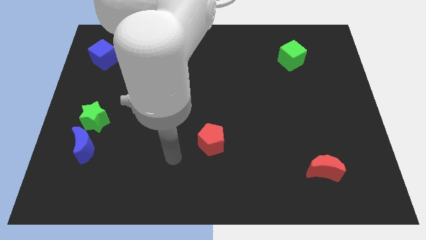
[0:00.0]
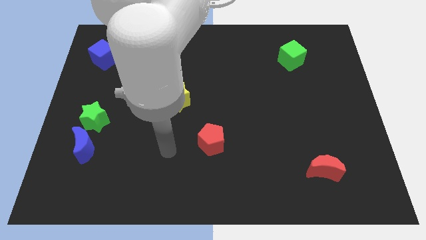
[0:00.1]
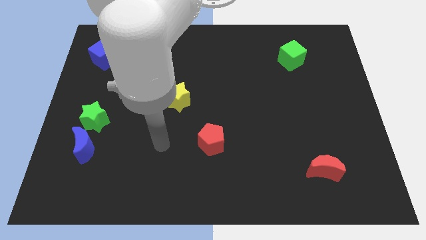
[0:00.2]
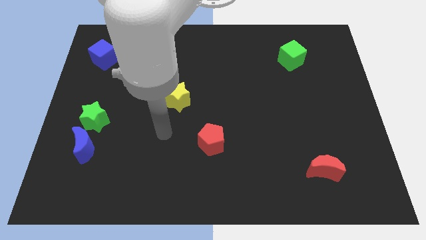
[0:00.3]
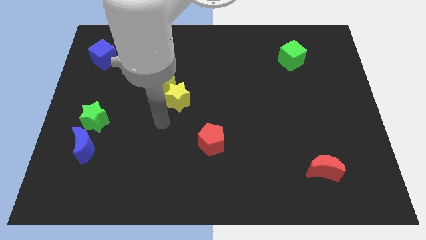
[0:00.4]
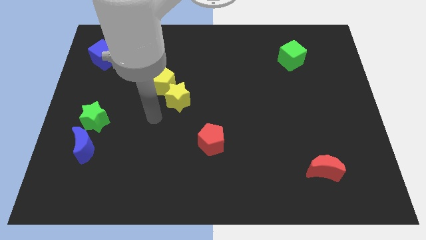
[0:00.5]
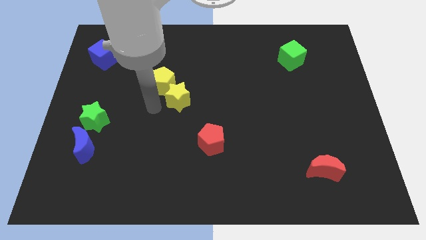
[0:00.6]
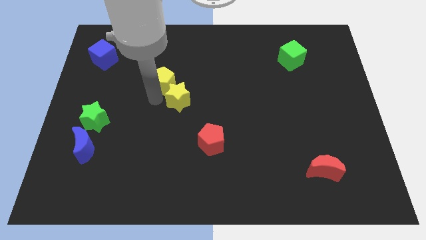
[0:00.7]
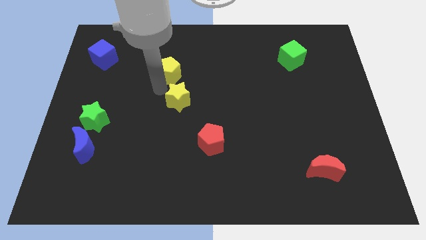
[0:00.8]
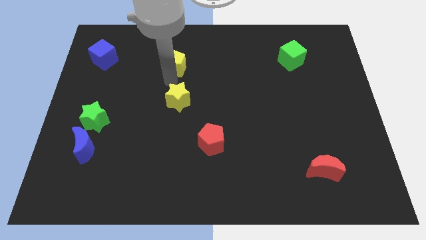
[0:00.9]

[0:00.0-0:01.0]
pull the yellow star apart from the yellow pentagon

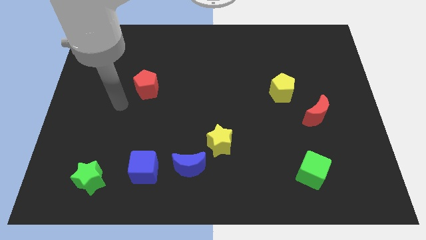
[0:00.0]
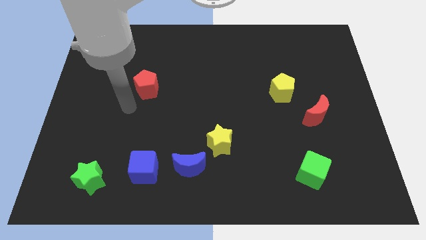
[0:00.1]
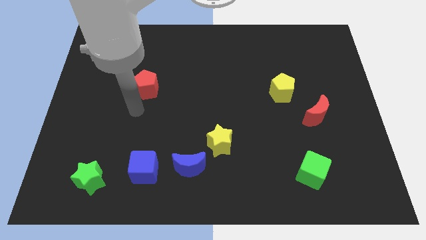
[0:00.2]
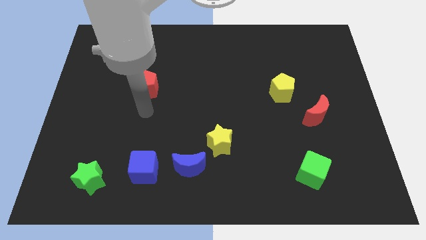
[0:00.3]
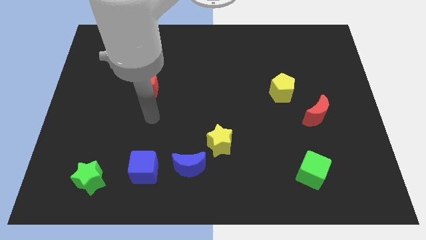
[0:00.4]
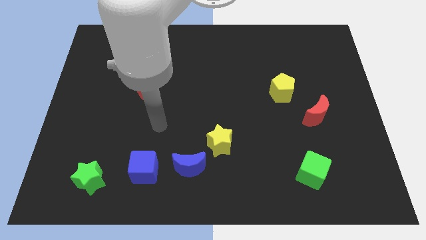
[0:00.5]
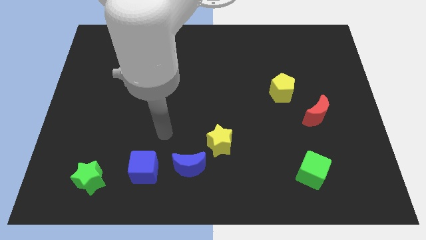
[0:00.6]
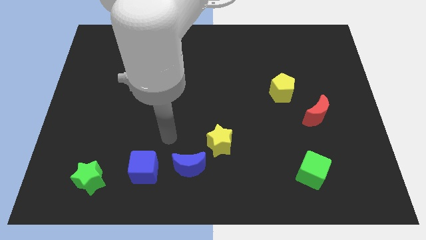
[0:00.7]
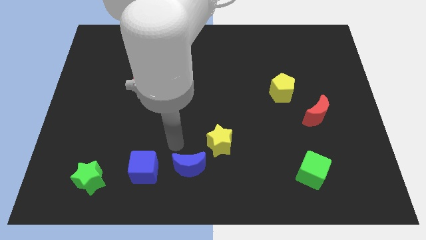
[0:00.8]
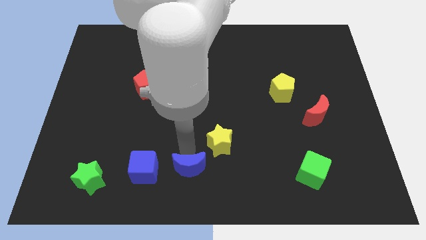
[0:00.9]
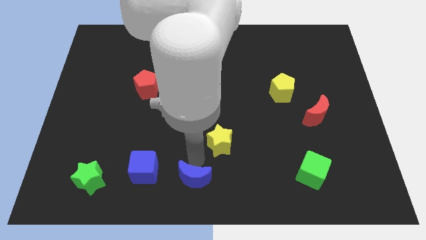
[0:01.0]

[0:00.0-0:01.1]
move the yellow star away from the blue moon

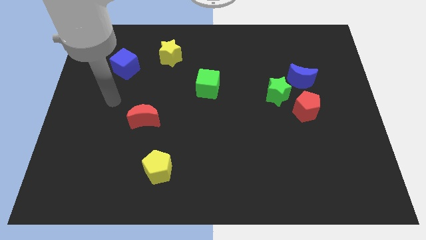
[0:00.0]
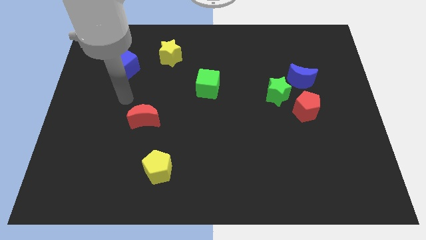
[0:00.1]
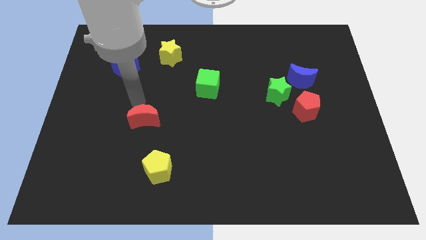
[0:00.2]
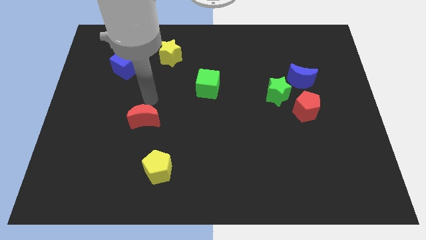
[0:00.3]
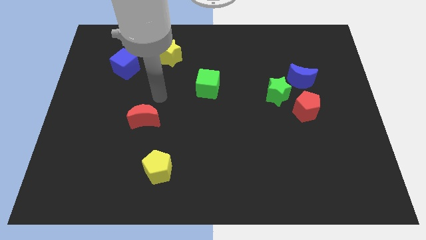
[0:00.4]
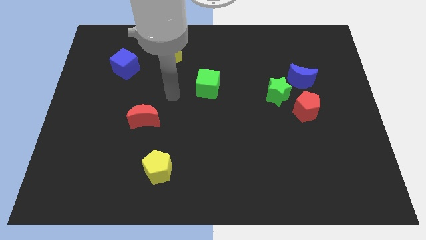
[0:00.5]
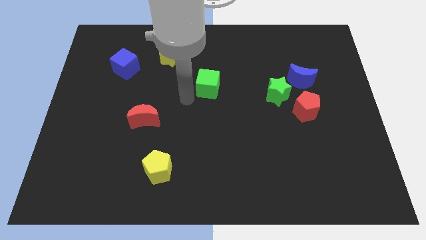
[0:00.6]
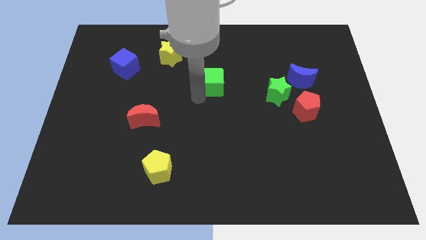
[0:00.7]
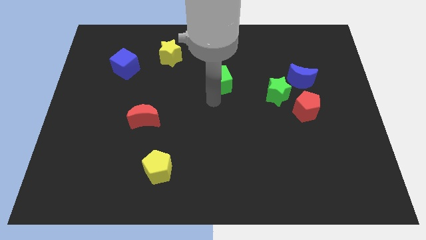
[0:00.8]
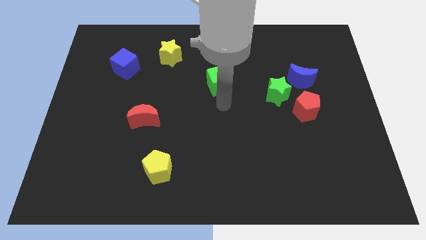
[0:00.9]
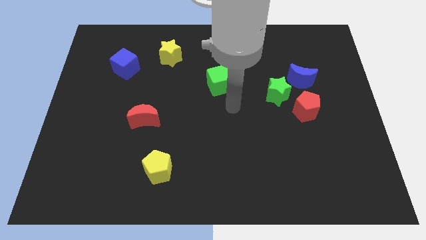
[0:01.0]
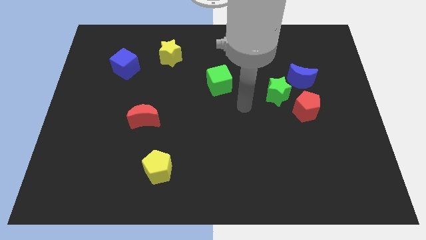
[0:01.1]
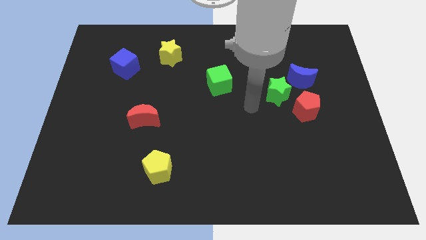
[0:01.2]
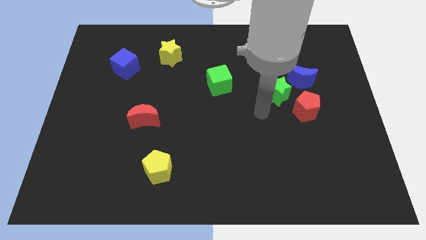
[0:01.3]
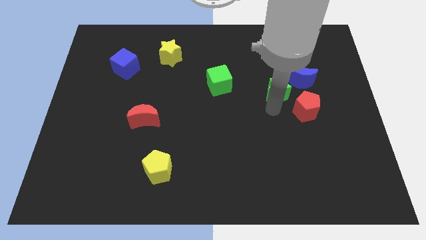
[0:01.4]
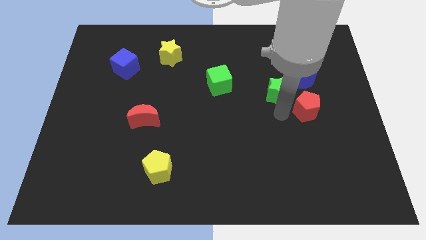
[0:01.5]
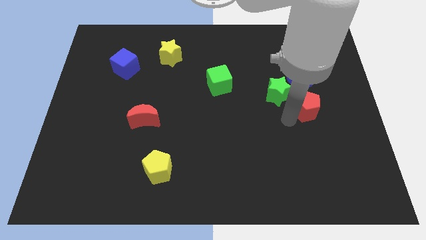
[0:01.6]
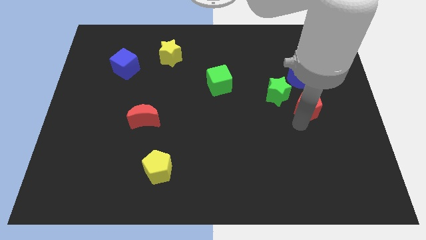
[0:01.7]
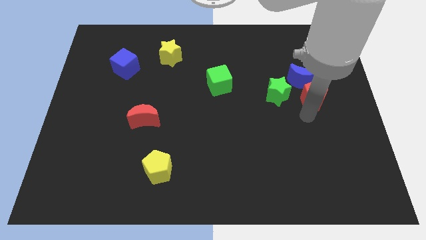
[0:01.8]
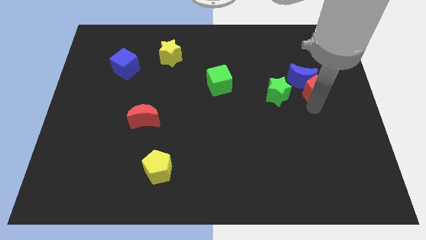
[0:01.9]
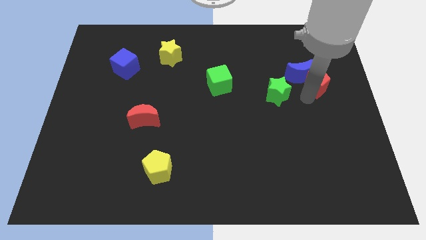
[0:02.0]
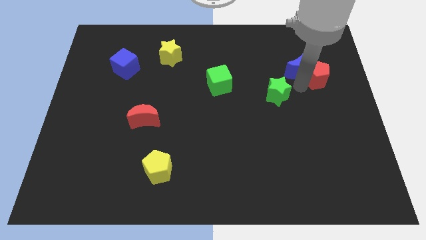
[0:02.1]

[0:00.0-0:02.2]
pull the green star apart from the red pentagon and blue moon

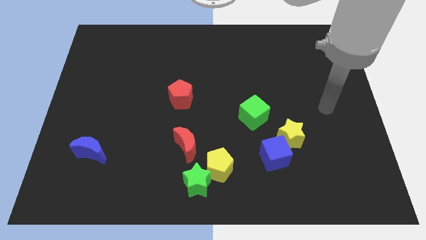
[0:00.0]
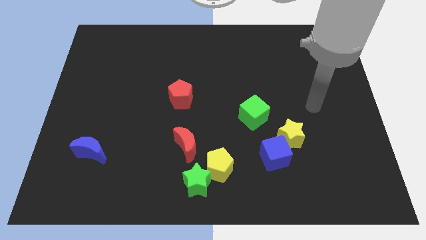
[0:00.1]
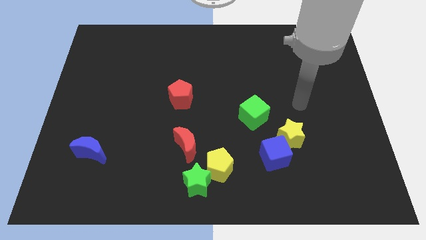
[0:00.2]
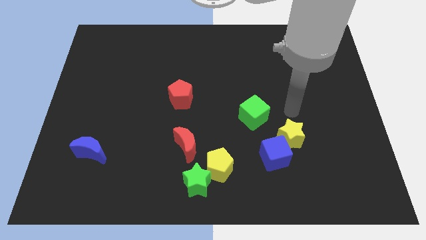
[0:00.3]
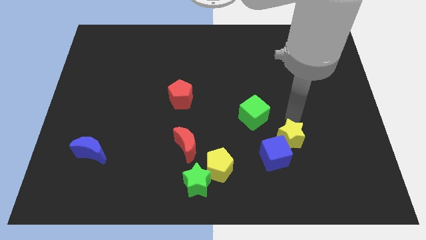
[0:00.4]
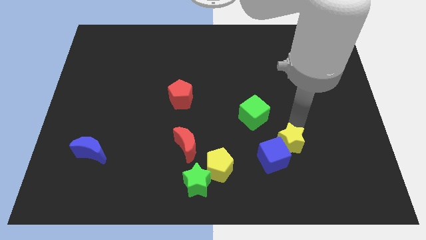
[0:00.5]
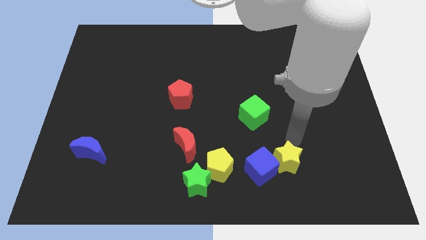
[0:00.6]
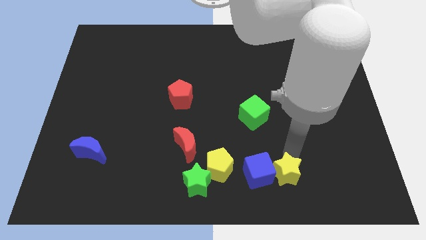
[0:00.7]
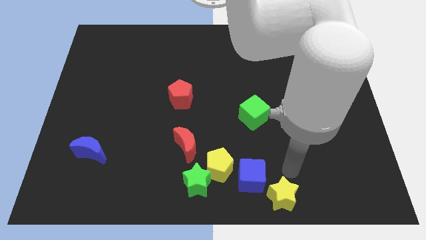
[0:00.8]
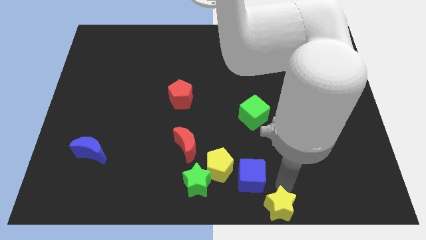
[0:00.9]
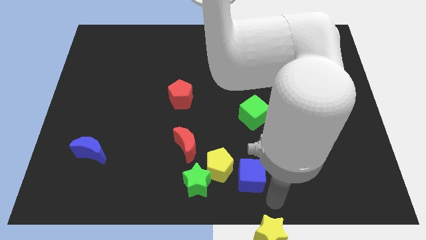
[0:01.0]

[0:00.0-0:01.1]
pull the blue cube apart from the yellow star

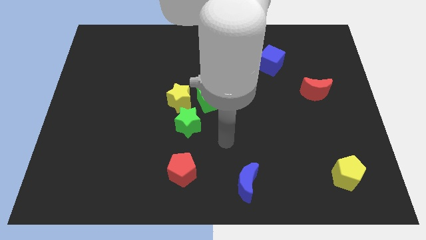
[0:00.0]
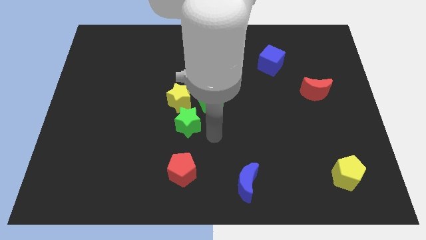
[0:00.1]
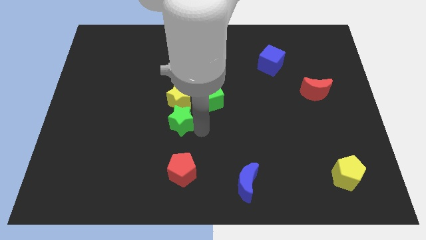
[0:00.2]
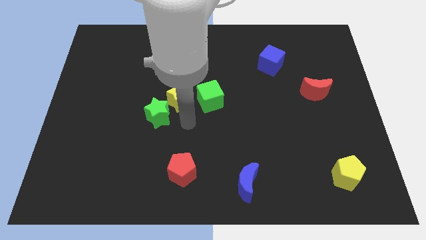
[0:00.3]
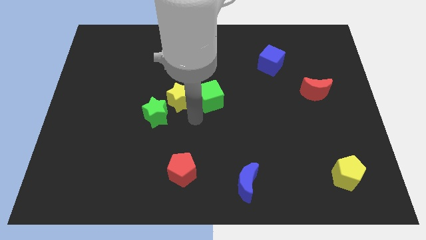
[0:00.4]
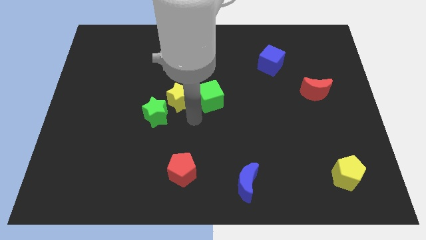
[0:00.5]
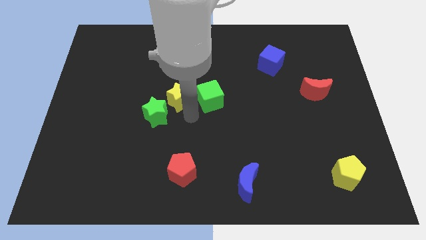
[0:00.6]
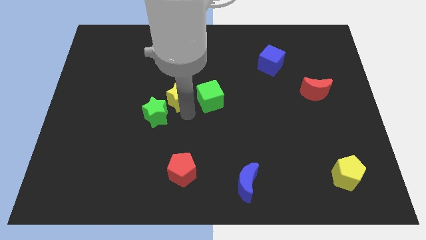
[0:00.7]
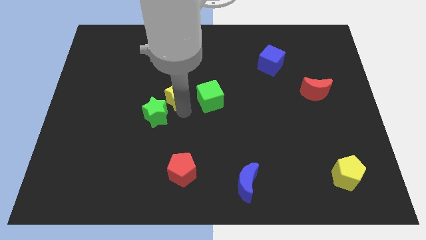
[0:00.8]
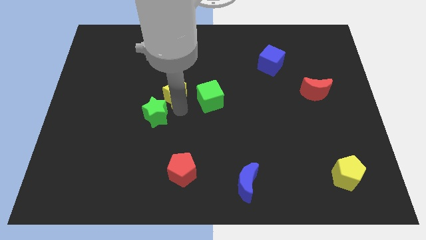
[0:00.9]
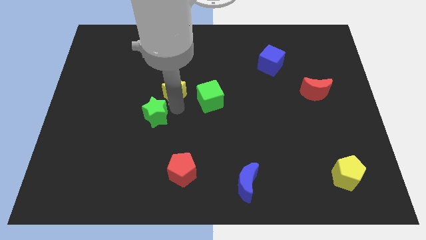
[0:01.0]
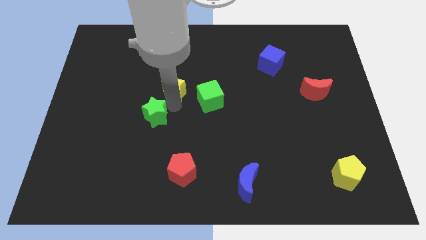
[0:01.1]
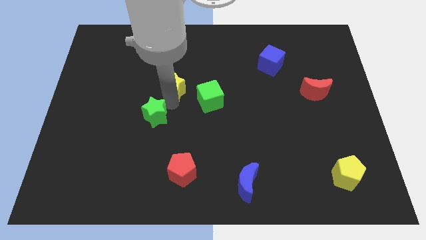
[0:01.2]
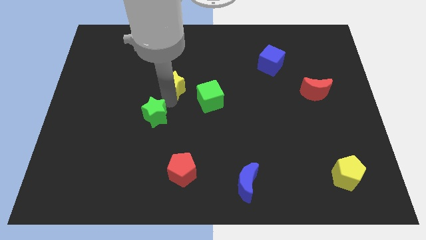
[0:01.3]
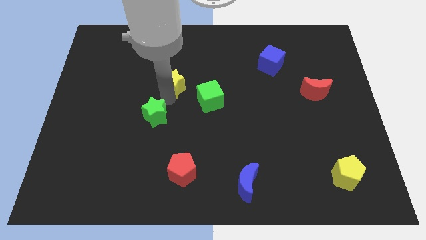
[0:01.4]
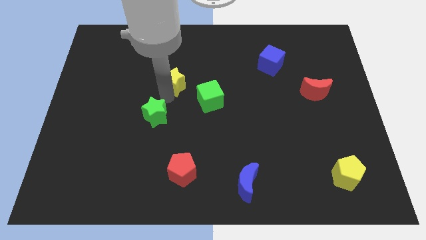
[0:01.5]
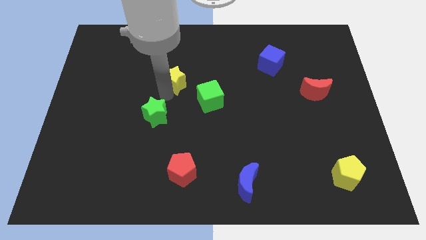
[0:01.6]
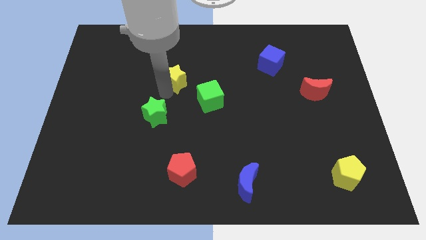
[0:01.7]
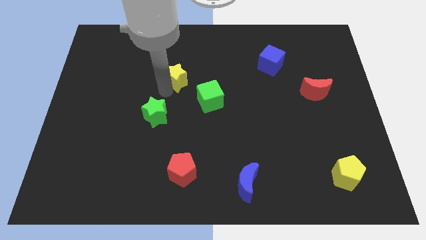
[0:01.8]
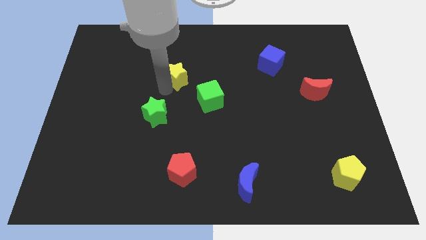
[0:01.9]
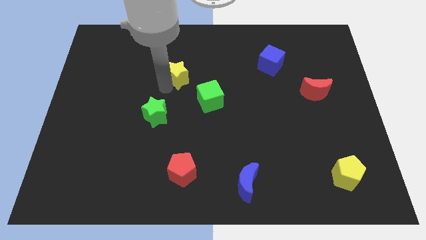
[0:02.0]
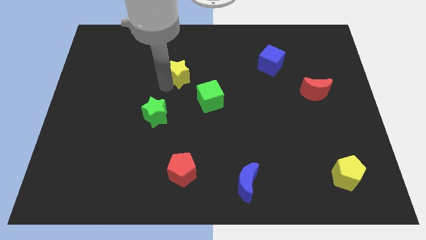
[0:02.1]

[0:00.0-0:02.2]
pull the yellow star apart from the green star and green cube

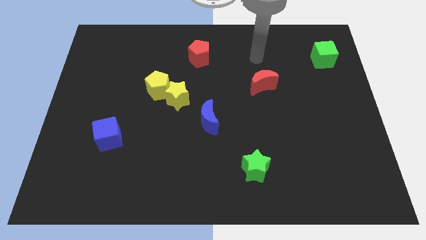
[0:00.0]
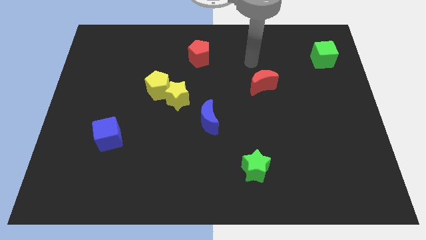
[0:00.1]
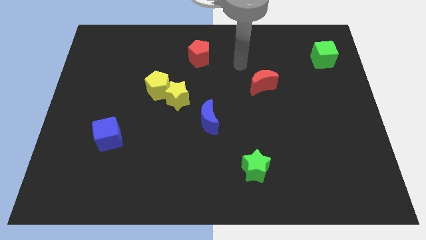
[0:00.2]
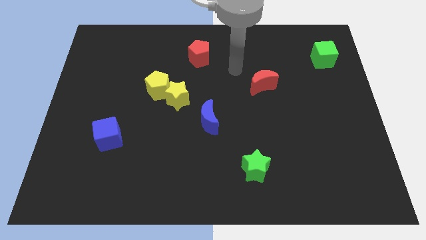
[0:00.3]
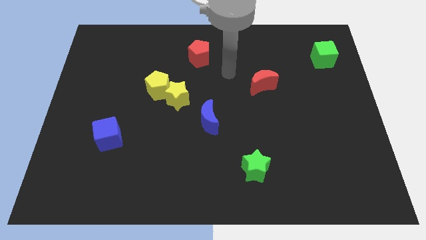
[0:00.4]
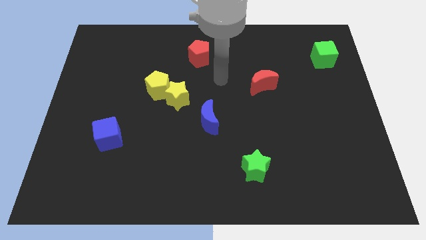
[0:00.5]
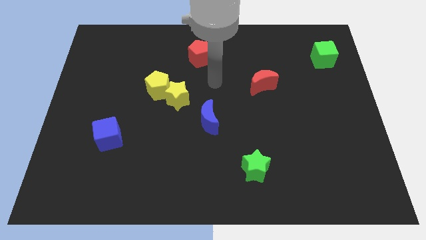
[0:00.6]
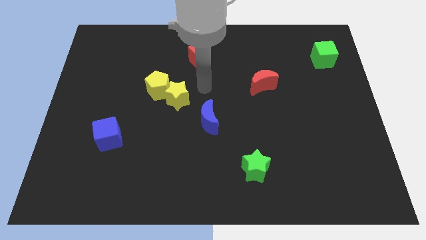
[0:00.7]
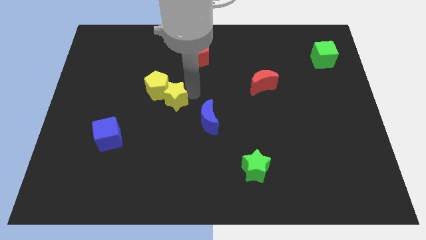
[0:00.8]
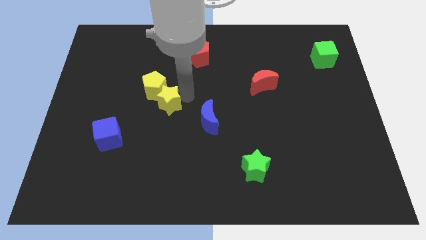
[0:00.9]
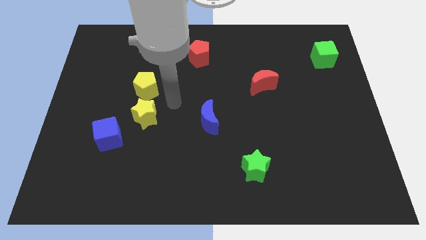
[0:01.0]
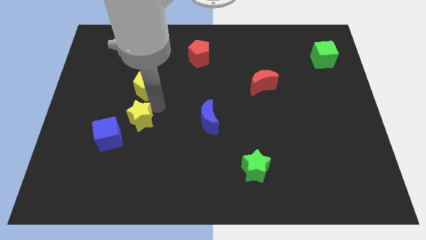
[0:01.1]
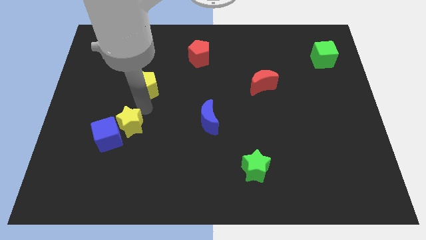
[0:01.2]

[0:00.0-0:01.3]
move the yellow pentagon away from the yellow star

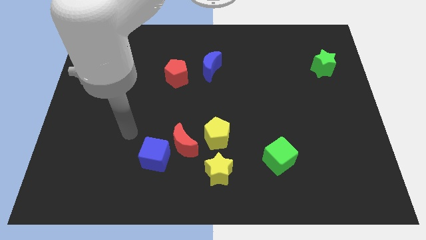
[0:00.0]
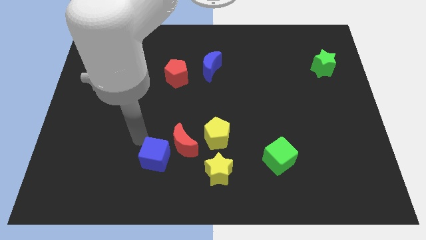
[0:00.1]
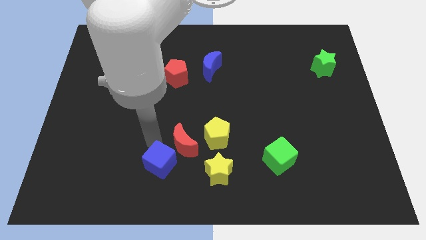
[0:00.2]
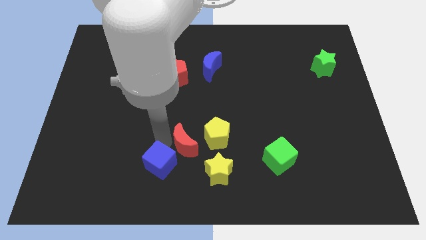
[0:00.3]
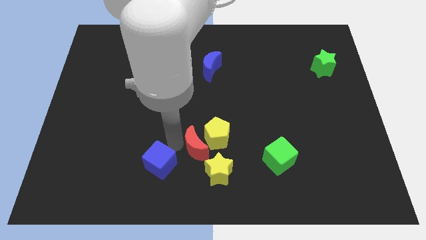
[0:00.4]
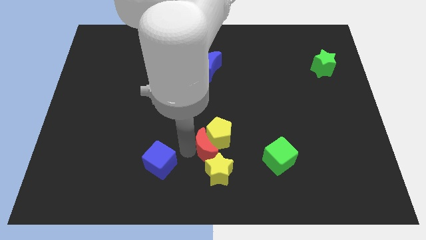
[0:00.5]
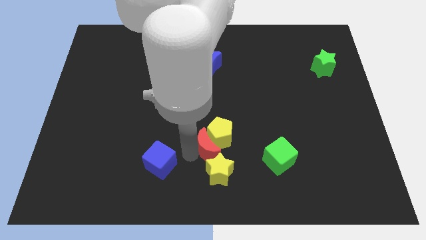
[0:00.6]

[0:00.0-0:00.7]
move the blue cube away from the red moon
